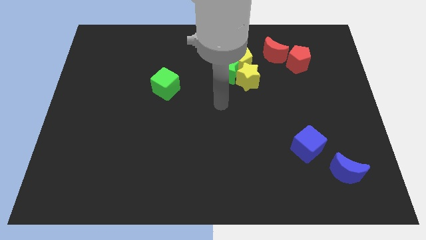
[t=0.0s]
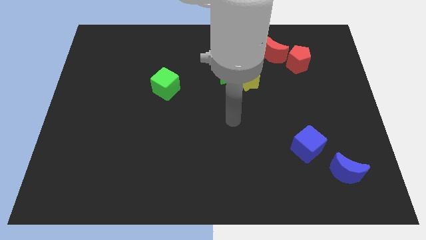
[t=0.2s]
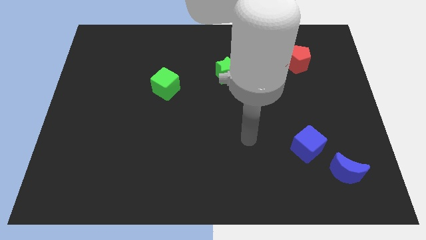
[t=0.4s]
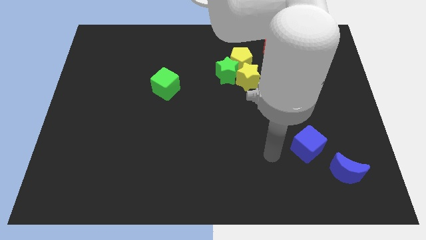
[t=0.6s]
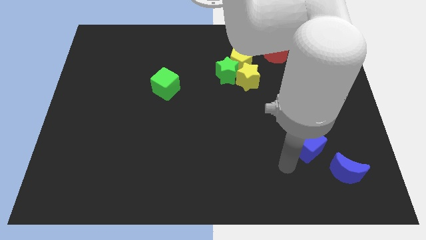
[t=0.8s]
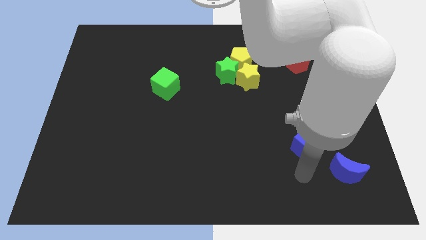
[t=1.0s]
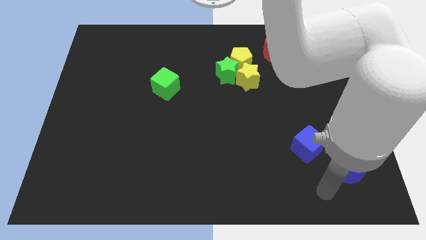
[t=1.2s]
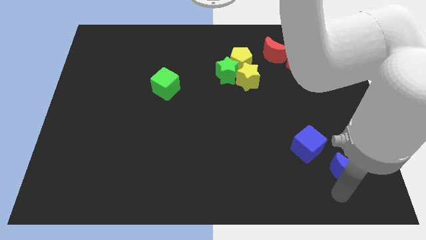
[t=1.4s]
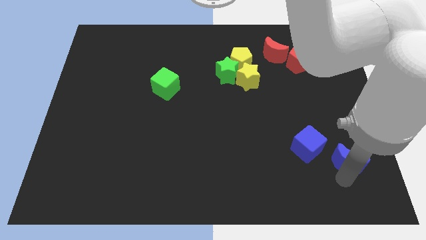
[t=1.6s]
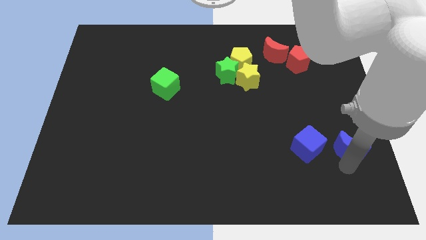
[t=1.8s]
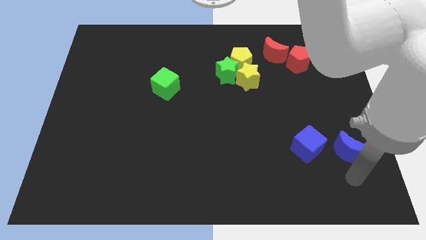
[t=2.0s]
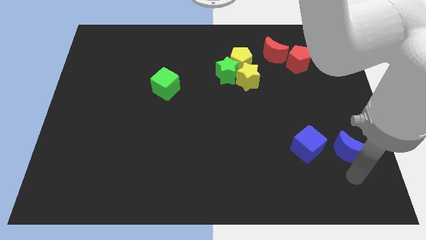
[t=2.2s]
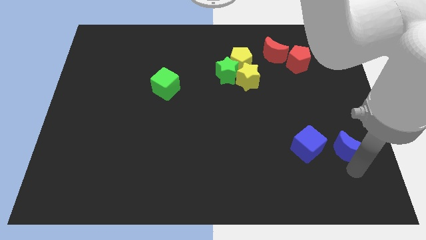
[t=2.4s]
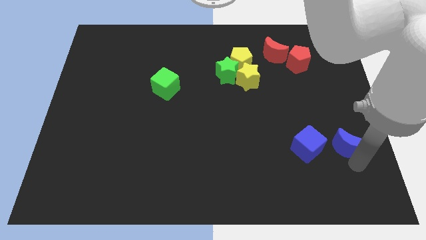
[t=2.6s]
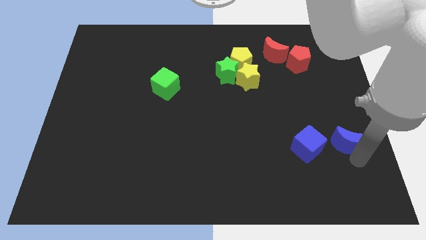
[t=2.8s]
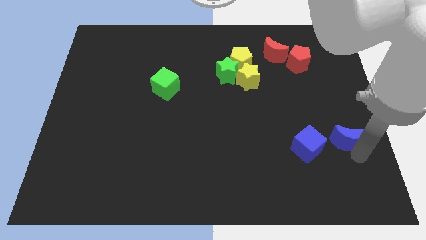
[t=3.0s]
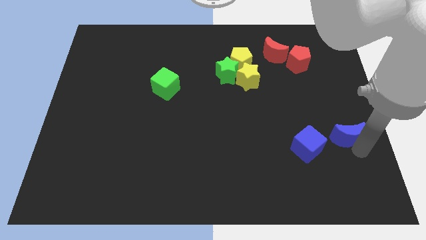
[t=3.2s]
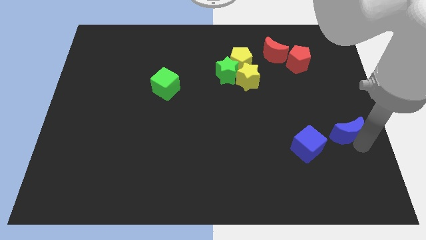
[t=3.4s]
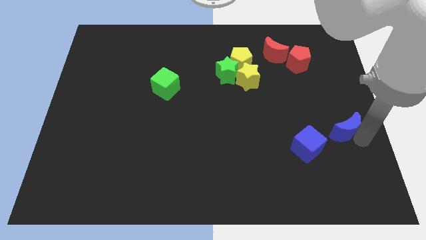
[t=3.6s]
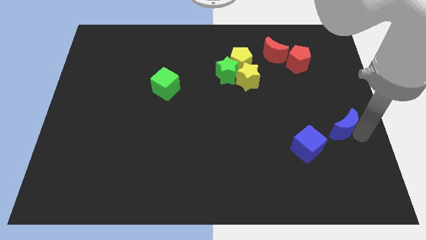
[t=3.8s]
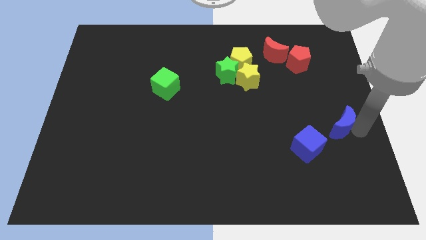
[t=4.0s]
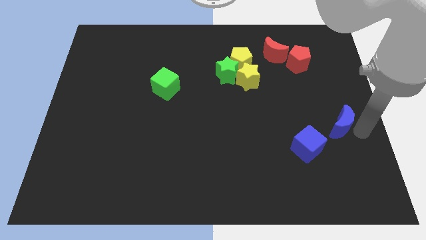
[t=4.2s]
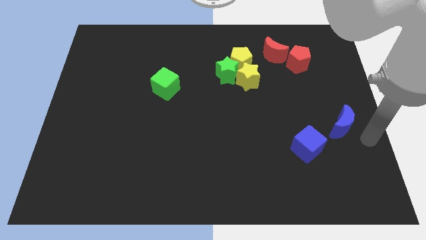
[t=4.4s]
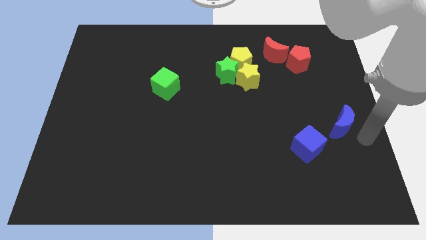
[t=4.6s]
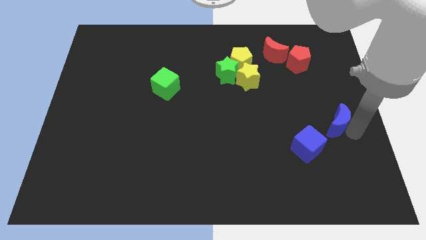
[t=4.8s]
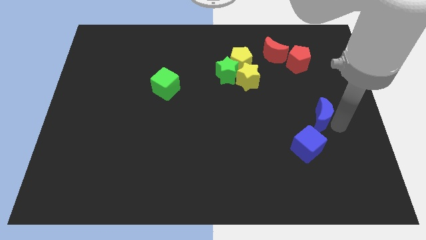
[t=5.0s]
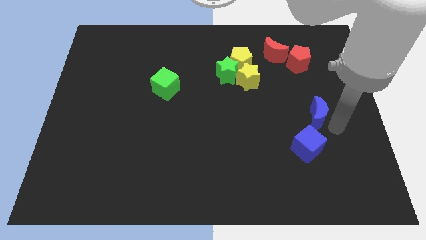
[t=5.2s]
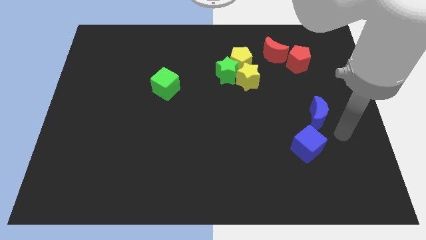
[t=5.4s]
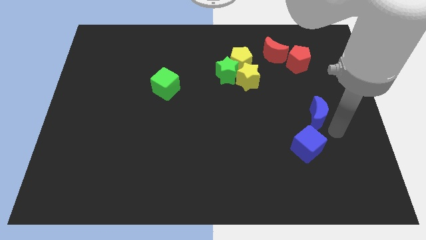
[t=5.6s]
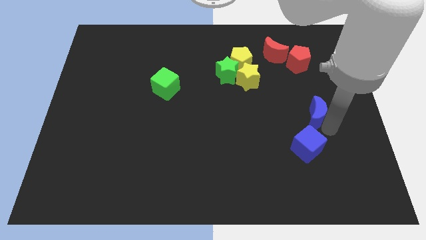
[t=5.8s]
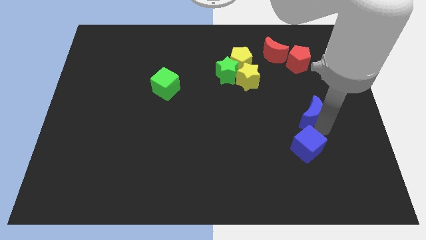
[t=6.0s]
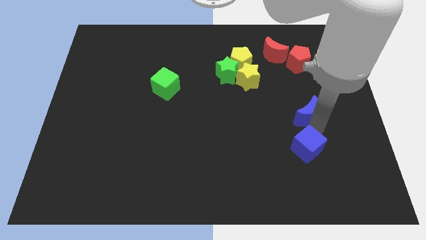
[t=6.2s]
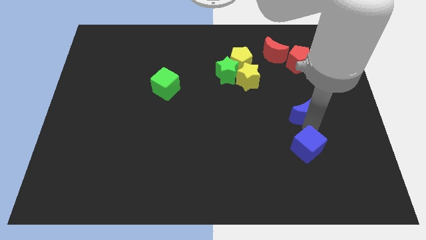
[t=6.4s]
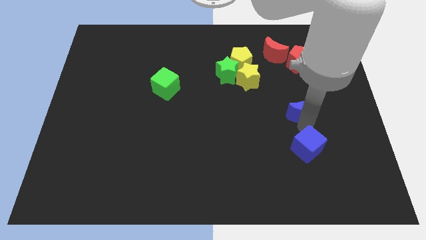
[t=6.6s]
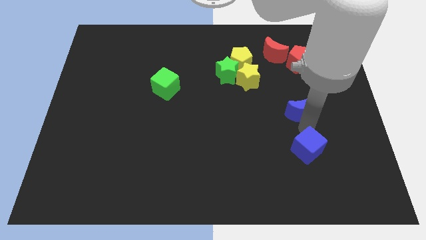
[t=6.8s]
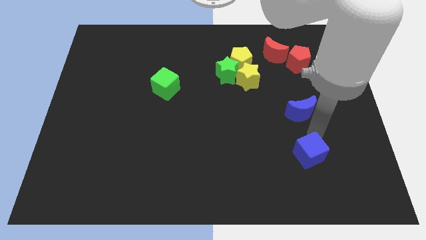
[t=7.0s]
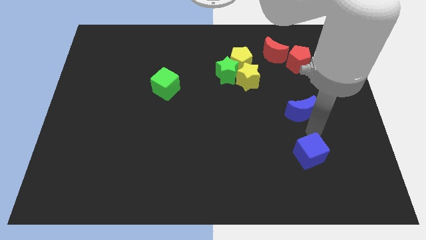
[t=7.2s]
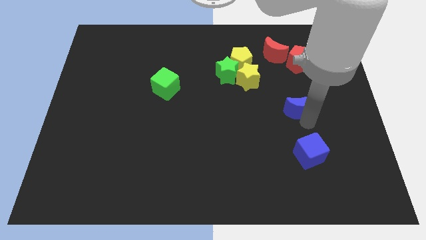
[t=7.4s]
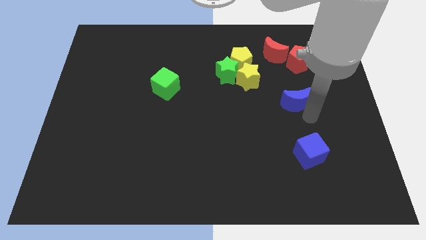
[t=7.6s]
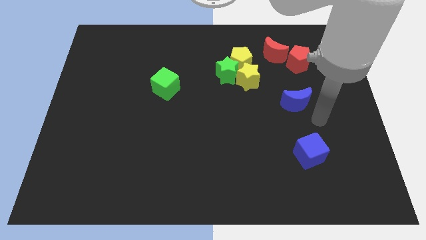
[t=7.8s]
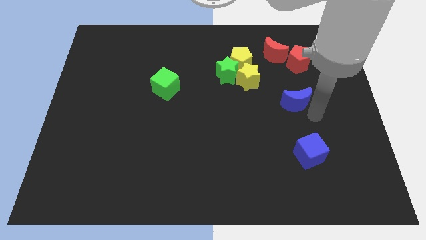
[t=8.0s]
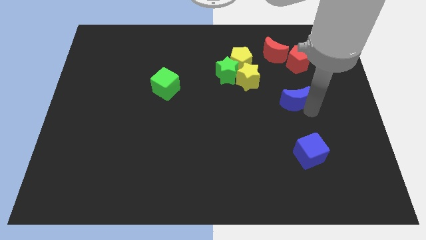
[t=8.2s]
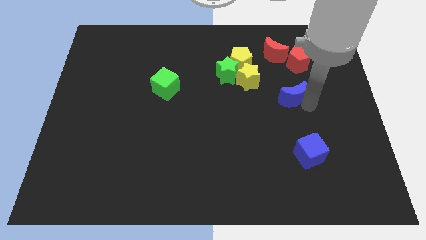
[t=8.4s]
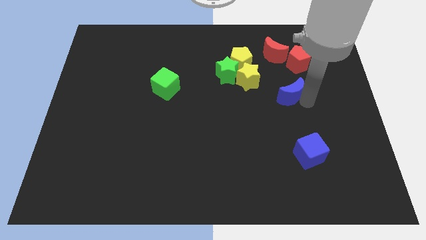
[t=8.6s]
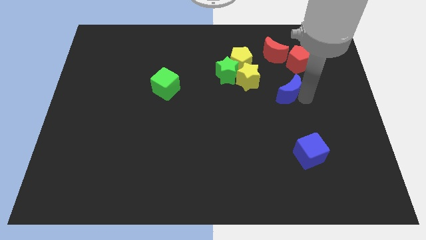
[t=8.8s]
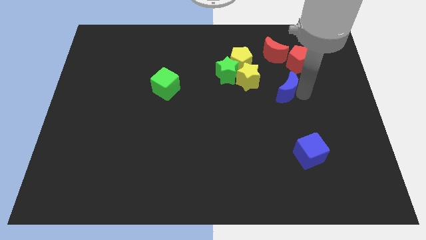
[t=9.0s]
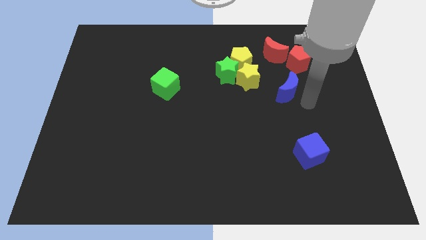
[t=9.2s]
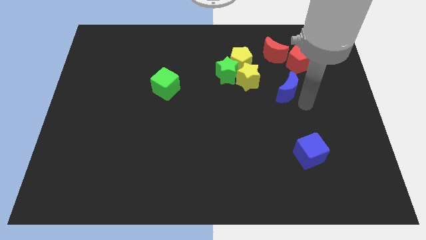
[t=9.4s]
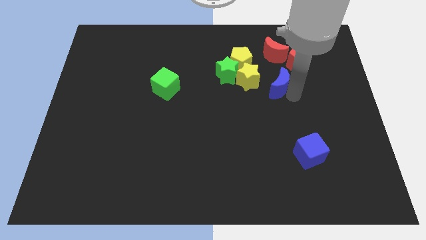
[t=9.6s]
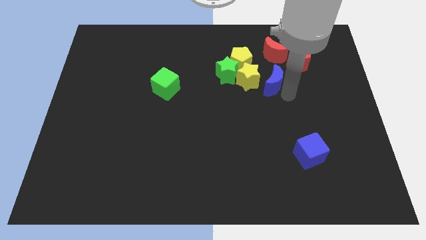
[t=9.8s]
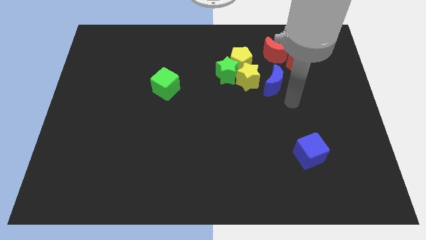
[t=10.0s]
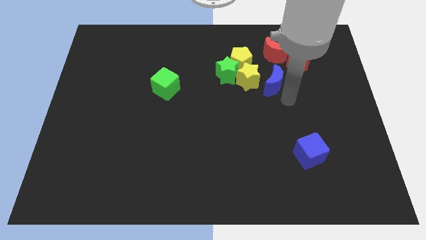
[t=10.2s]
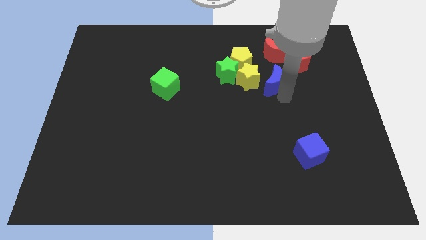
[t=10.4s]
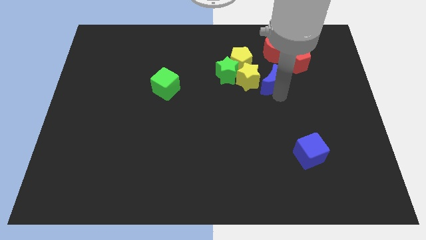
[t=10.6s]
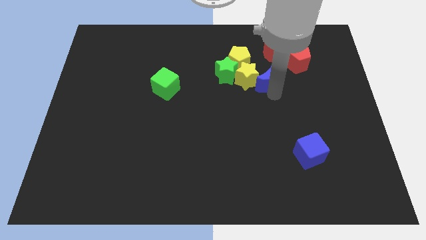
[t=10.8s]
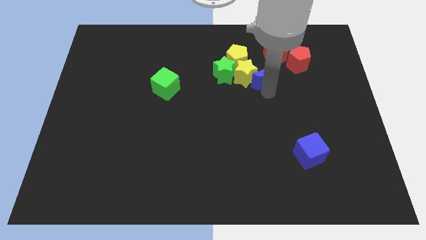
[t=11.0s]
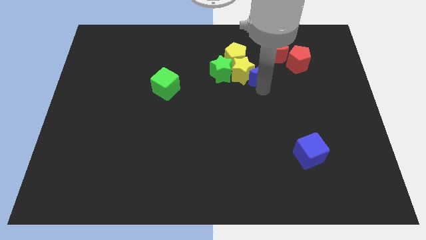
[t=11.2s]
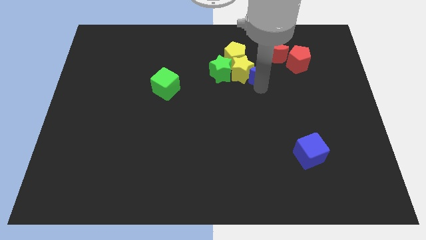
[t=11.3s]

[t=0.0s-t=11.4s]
put the blue moon left of the red pentagon

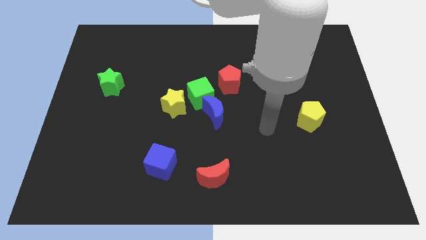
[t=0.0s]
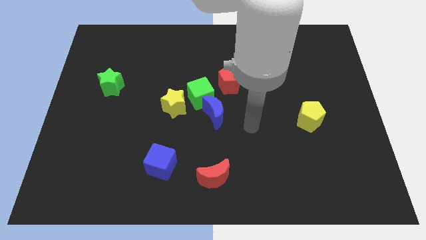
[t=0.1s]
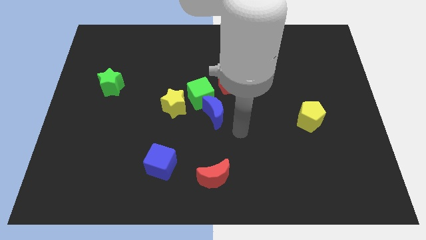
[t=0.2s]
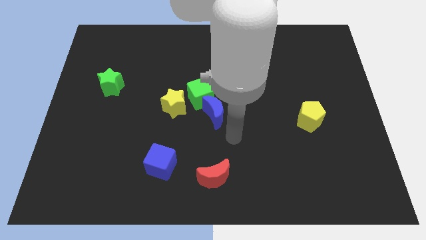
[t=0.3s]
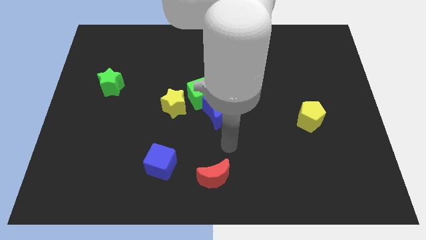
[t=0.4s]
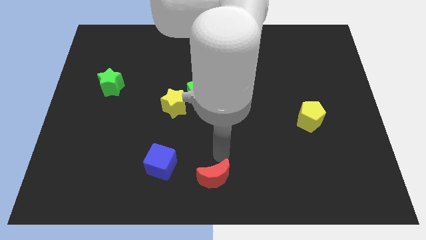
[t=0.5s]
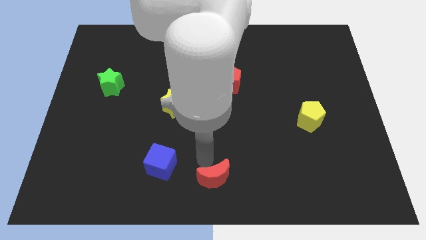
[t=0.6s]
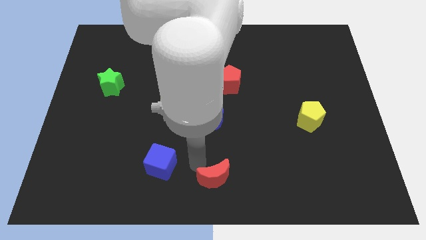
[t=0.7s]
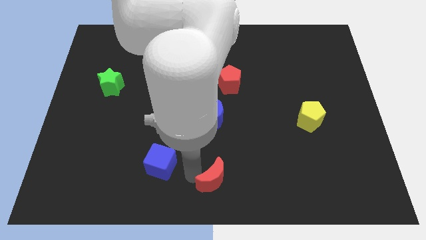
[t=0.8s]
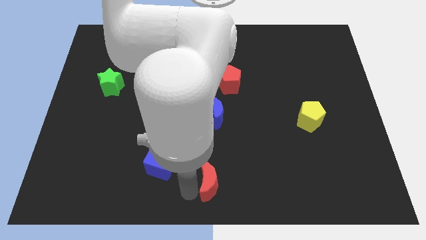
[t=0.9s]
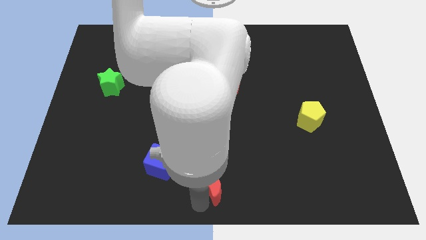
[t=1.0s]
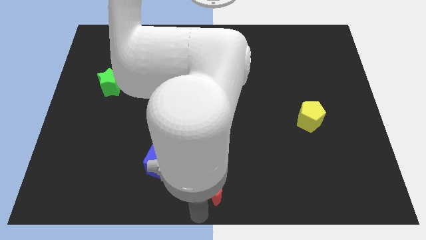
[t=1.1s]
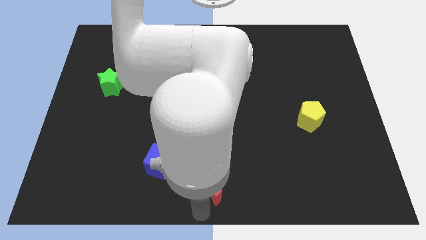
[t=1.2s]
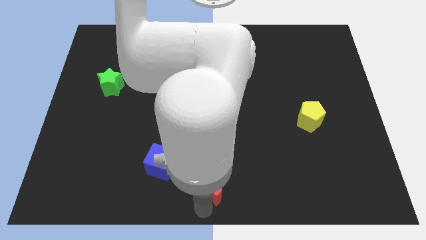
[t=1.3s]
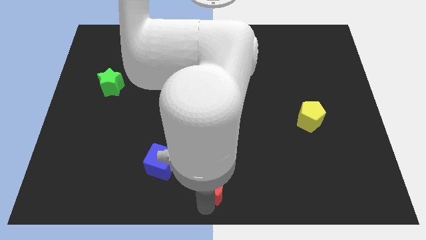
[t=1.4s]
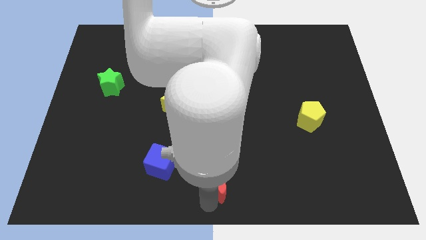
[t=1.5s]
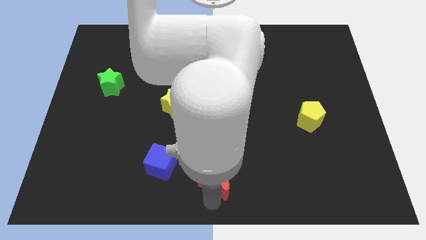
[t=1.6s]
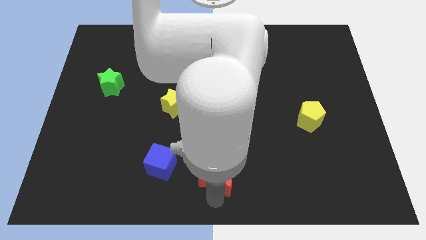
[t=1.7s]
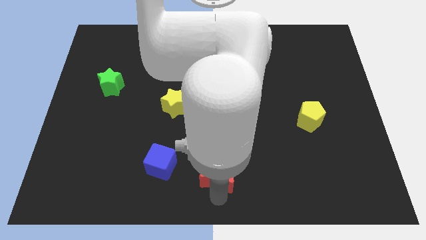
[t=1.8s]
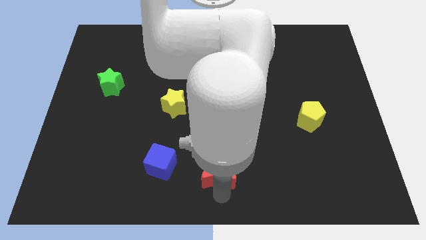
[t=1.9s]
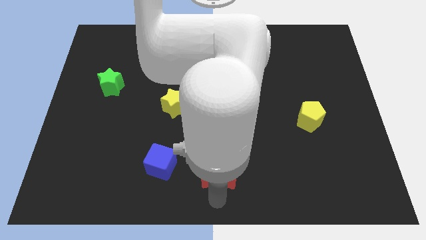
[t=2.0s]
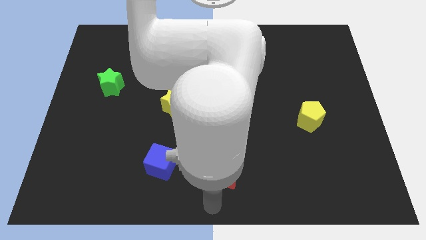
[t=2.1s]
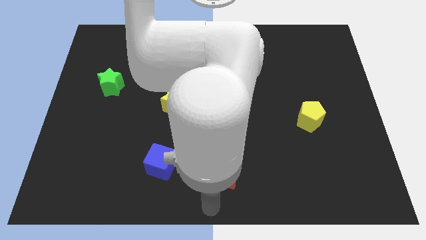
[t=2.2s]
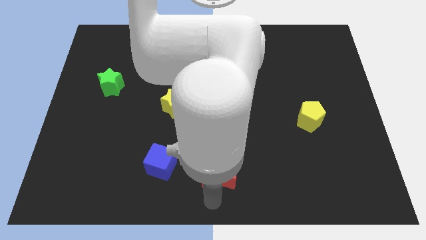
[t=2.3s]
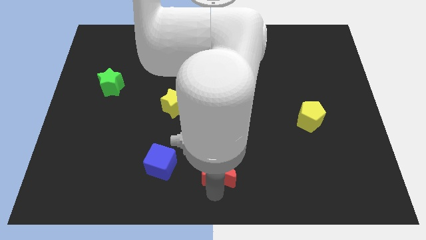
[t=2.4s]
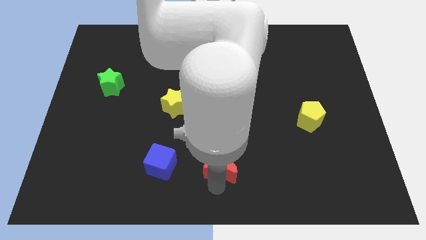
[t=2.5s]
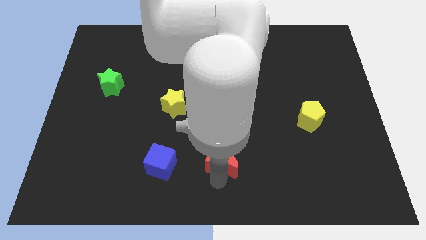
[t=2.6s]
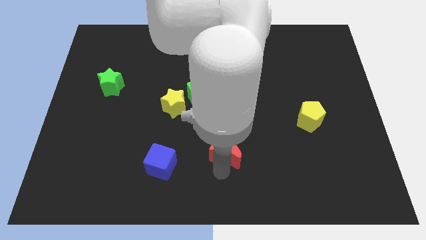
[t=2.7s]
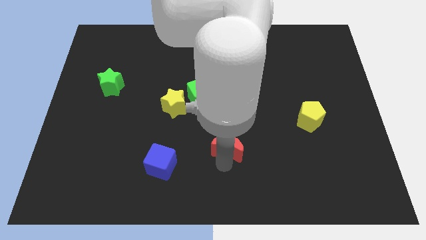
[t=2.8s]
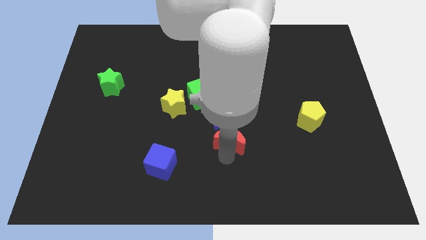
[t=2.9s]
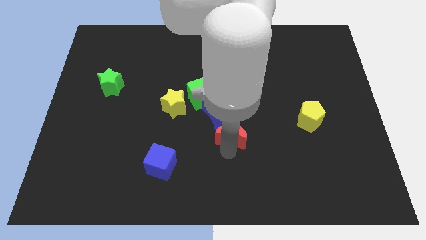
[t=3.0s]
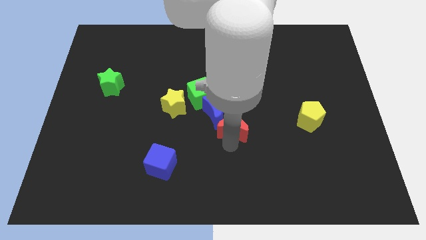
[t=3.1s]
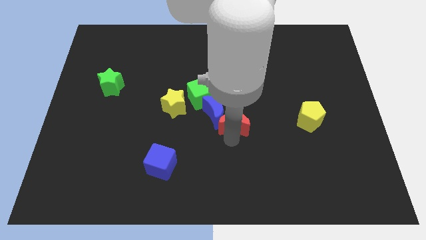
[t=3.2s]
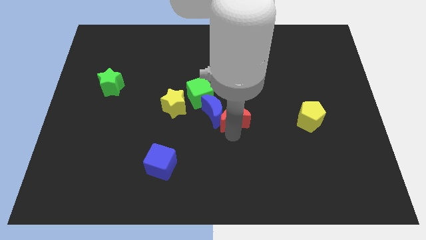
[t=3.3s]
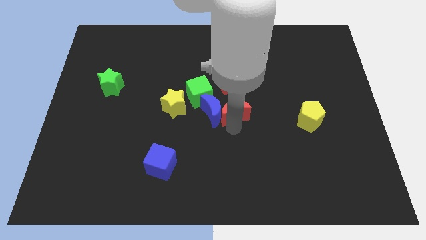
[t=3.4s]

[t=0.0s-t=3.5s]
move the red moon diagonally up and to the right of the blue moon
